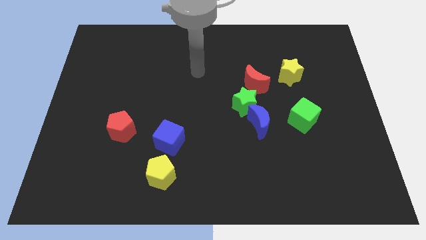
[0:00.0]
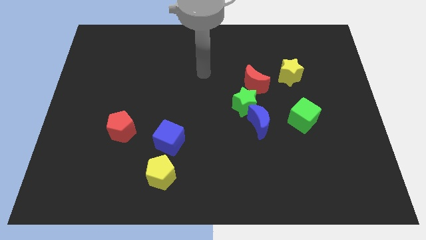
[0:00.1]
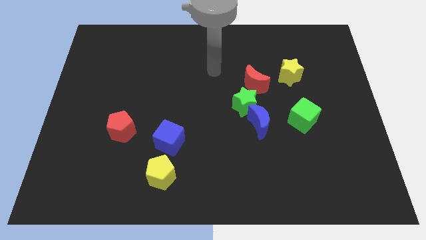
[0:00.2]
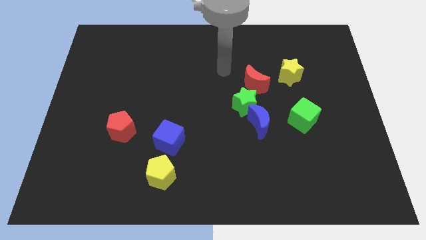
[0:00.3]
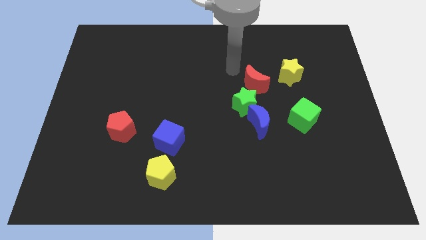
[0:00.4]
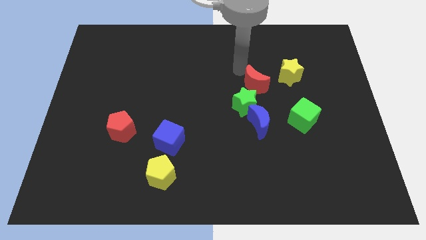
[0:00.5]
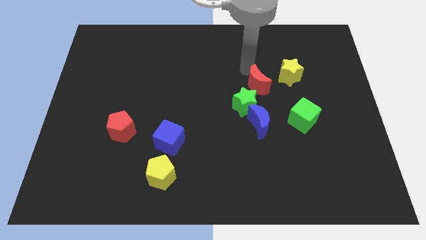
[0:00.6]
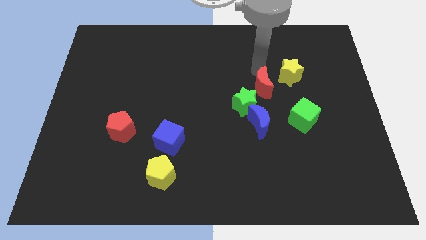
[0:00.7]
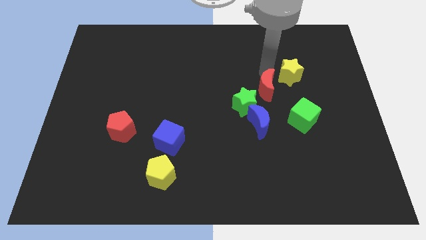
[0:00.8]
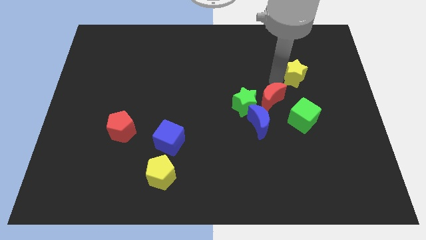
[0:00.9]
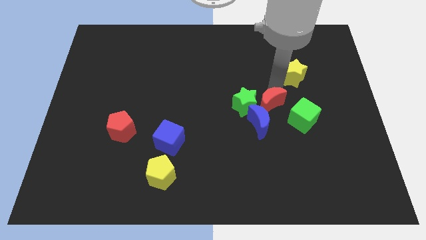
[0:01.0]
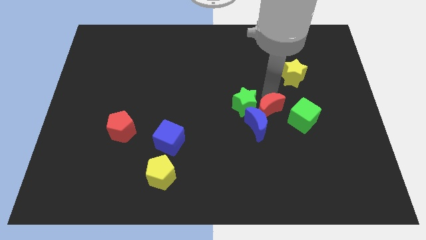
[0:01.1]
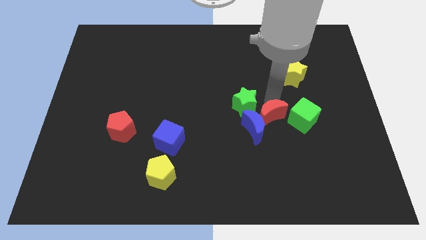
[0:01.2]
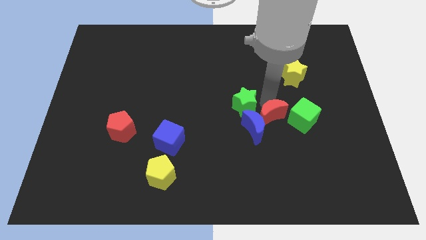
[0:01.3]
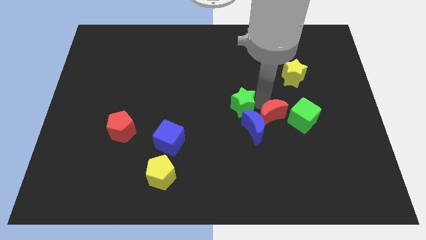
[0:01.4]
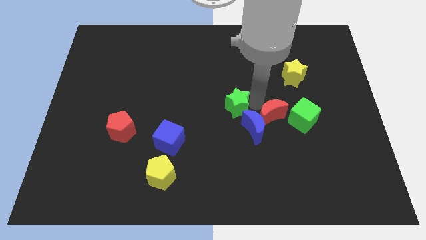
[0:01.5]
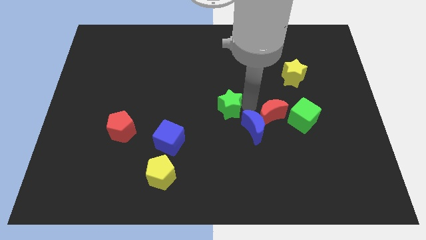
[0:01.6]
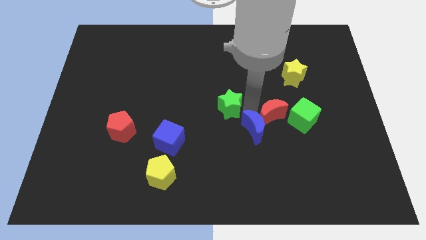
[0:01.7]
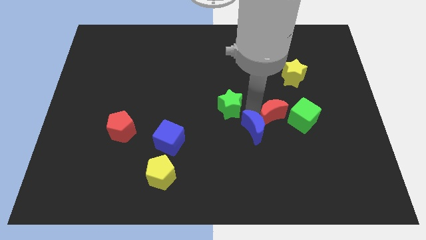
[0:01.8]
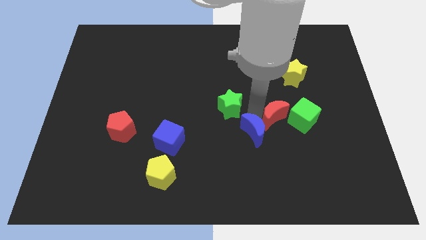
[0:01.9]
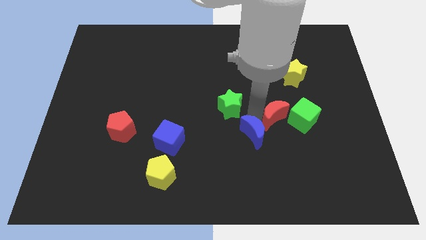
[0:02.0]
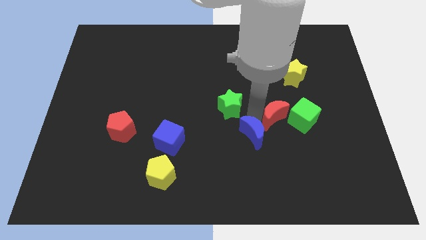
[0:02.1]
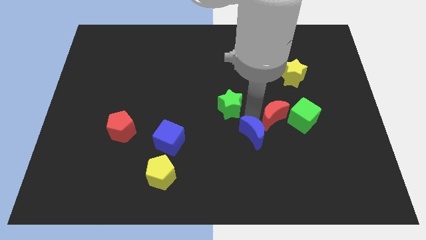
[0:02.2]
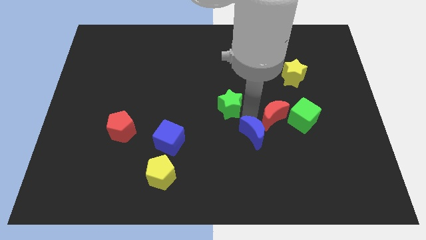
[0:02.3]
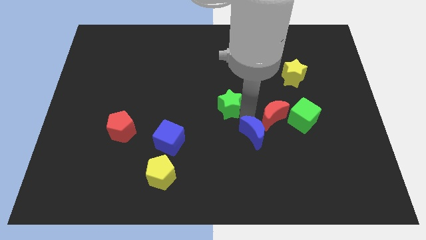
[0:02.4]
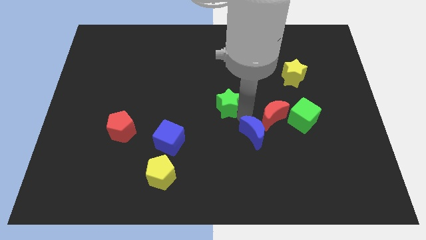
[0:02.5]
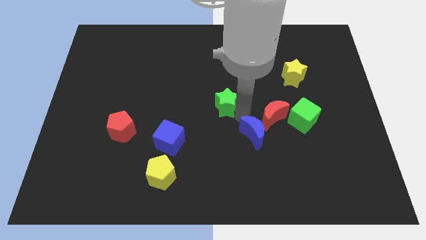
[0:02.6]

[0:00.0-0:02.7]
move the green star away from the blue moon and red moon

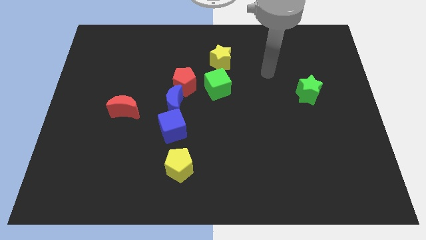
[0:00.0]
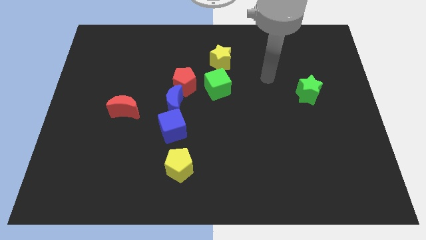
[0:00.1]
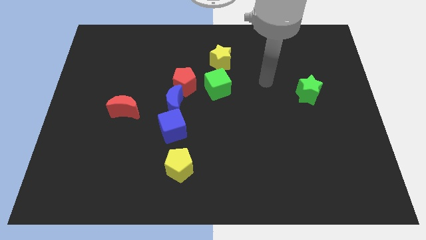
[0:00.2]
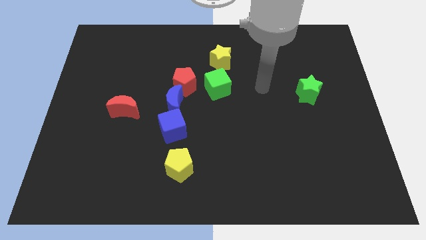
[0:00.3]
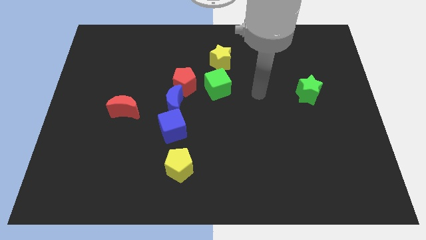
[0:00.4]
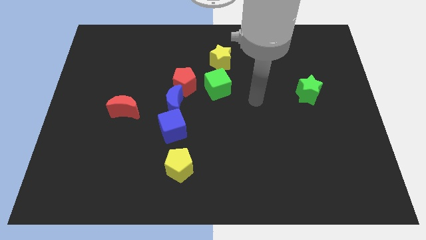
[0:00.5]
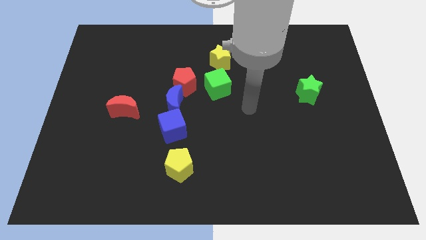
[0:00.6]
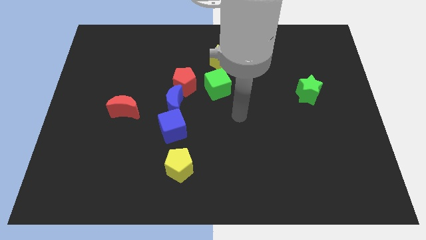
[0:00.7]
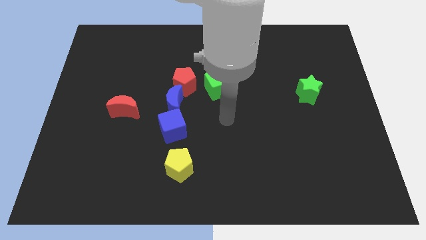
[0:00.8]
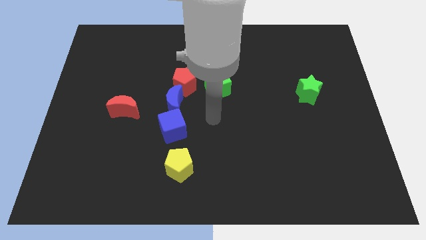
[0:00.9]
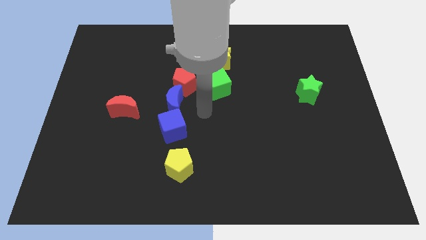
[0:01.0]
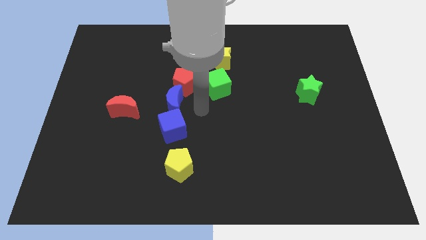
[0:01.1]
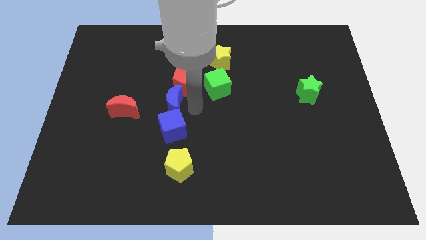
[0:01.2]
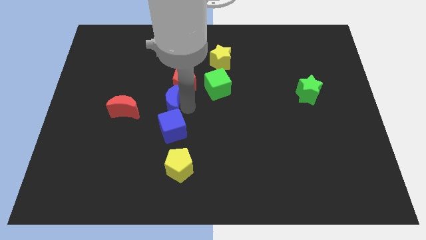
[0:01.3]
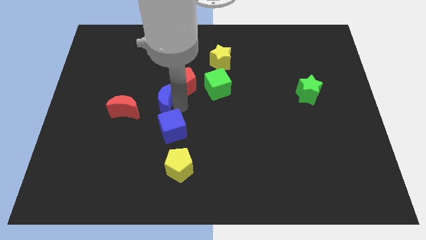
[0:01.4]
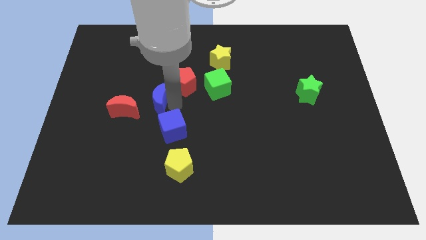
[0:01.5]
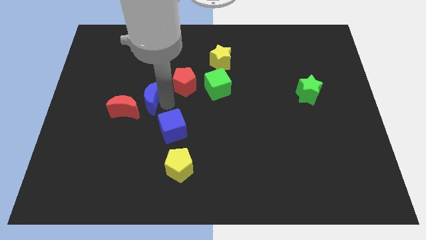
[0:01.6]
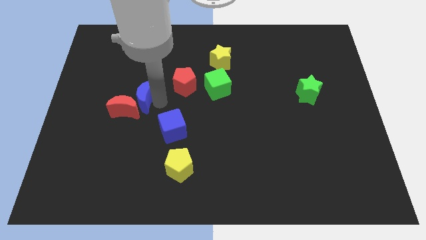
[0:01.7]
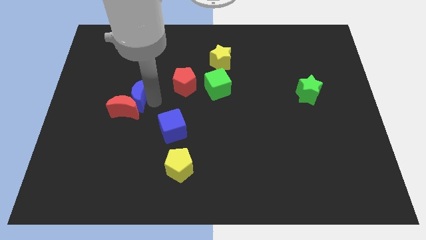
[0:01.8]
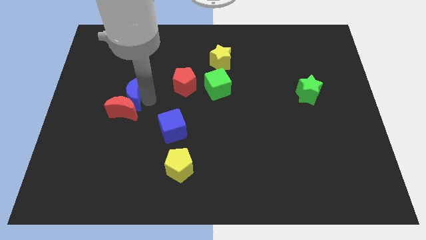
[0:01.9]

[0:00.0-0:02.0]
pull the blue moon apart from the red pentagon and blue cube

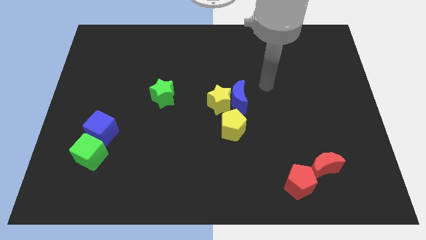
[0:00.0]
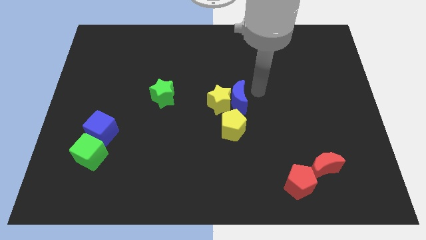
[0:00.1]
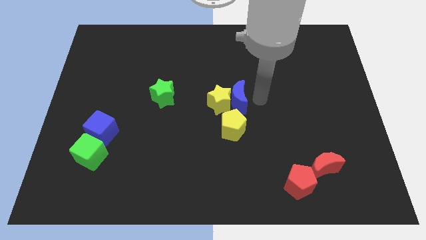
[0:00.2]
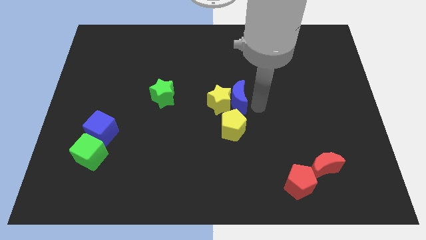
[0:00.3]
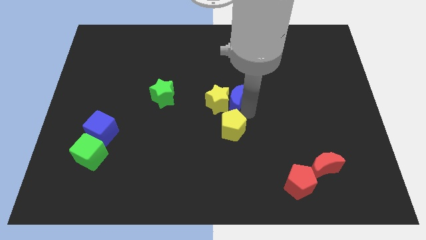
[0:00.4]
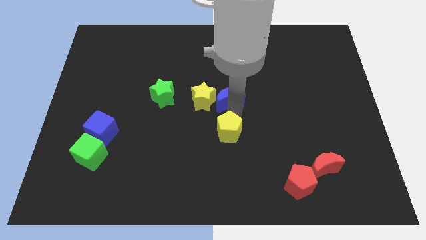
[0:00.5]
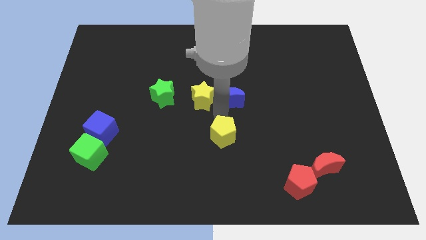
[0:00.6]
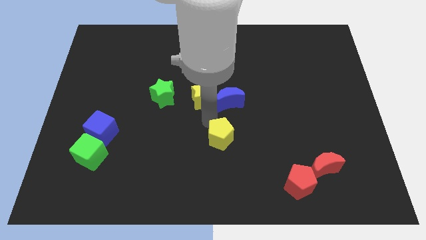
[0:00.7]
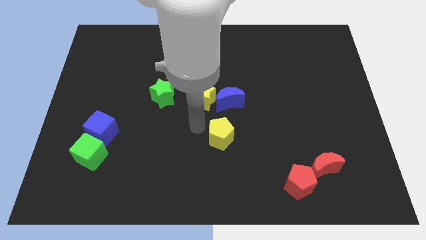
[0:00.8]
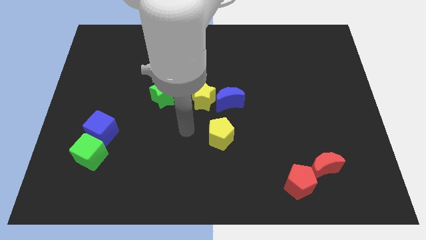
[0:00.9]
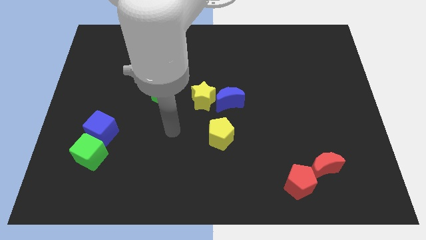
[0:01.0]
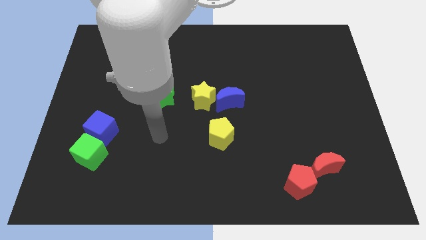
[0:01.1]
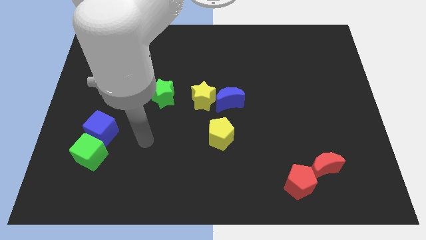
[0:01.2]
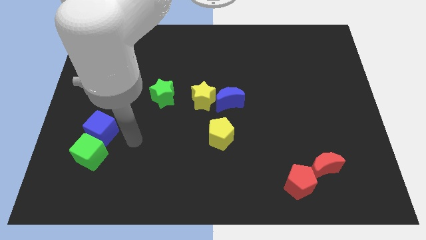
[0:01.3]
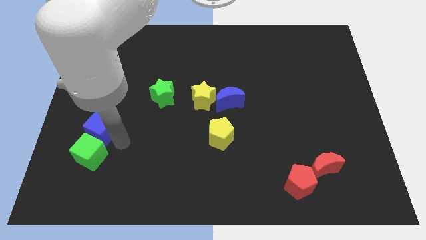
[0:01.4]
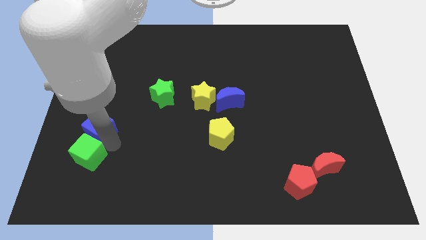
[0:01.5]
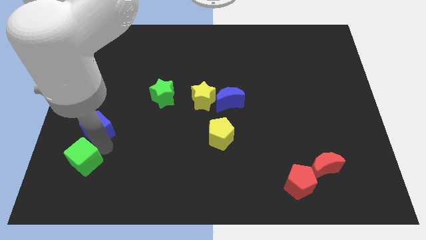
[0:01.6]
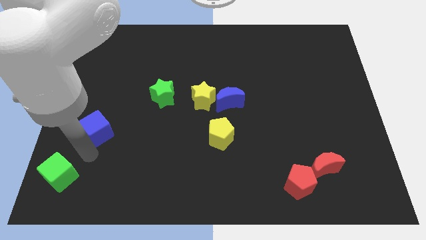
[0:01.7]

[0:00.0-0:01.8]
move the blue cube away from the green cube

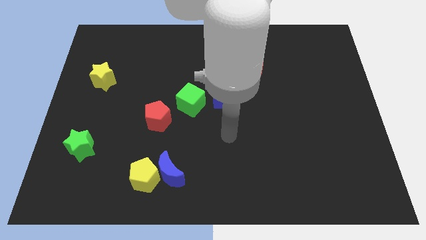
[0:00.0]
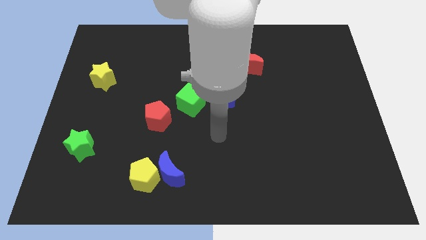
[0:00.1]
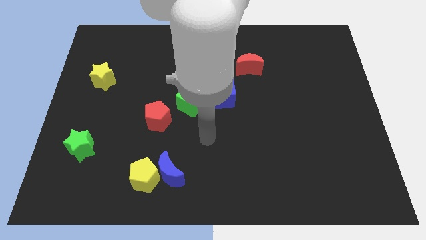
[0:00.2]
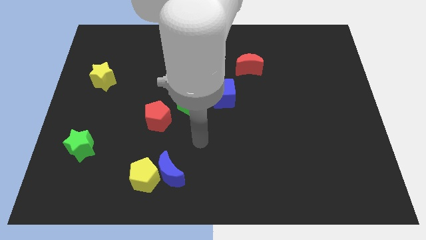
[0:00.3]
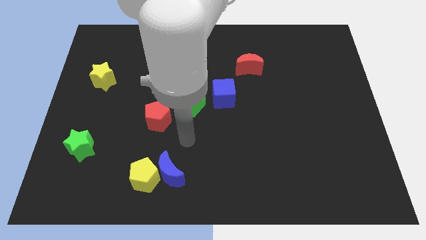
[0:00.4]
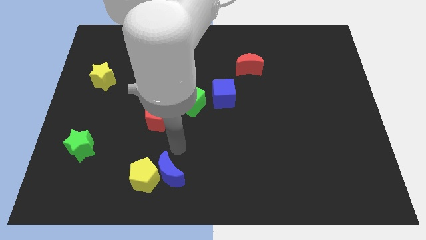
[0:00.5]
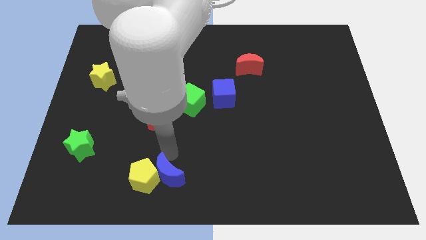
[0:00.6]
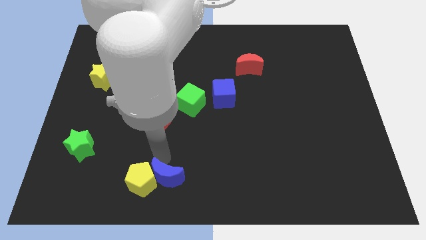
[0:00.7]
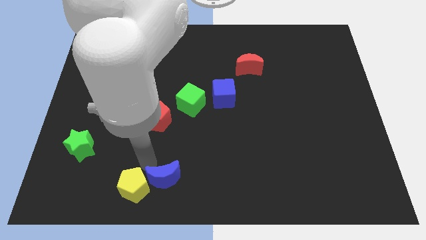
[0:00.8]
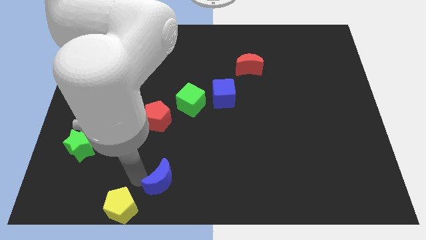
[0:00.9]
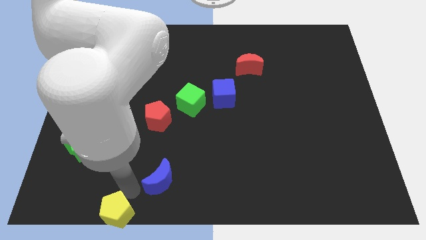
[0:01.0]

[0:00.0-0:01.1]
move the blue moon away from the yellow pentagon

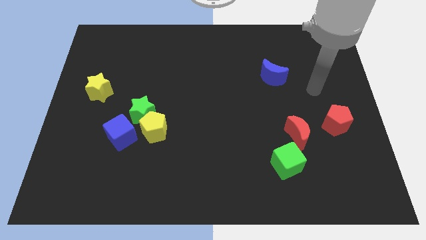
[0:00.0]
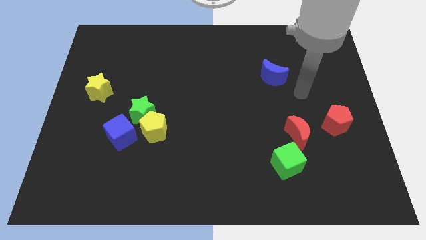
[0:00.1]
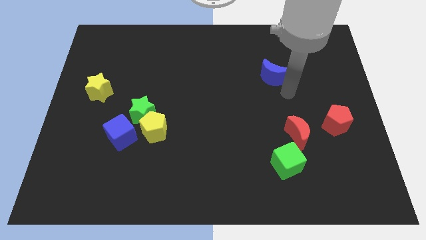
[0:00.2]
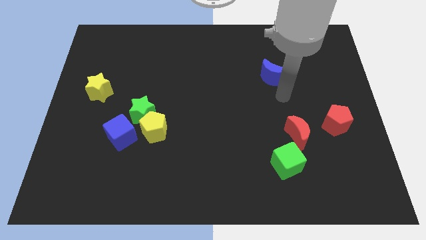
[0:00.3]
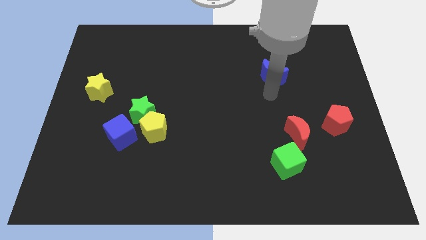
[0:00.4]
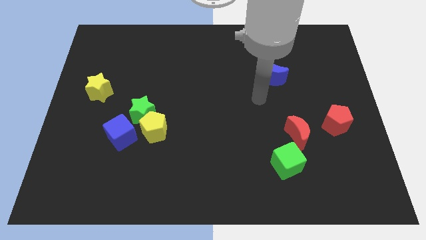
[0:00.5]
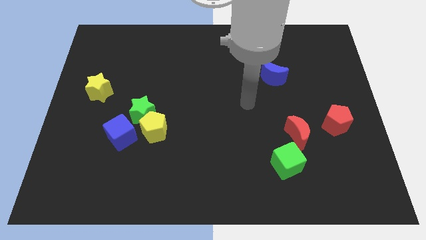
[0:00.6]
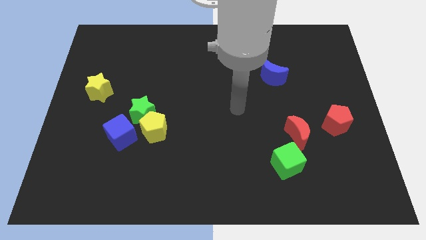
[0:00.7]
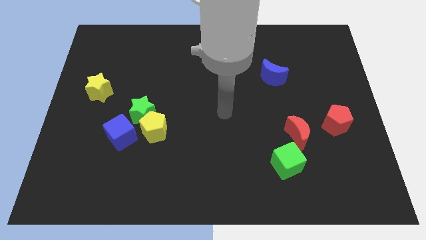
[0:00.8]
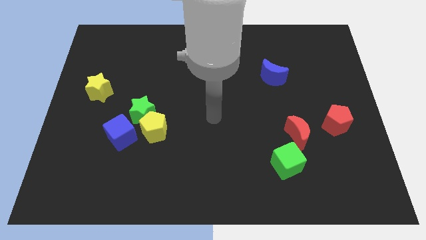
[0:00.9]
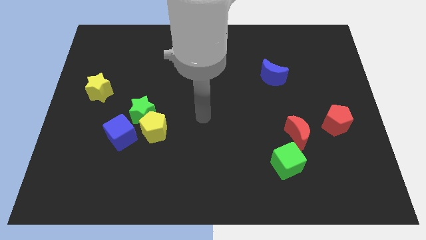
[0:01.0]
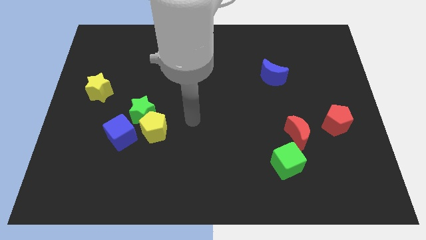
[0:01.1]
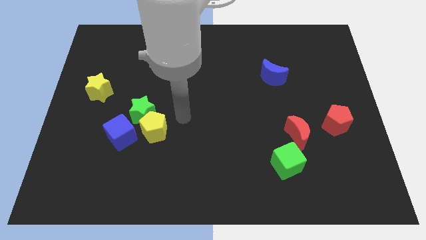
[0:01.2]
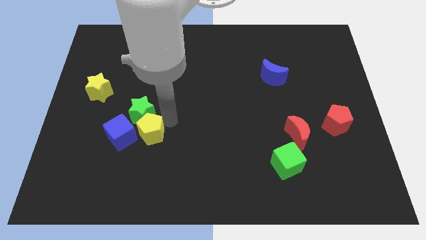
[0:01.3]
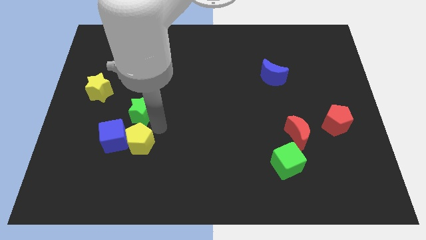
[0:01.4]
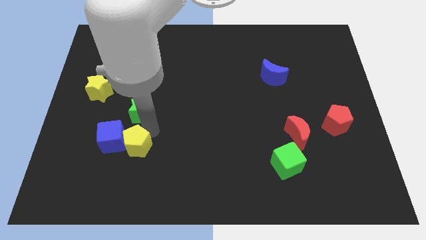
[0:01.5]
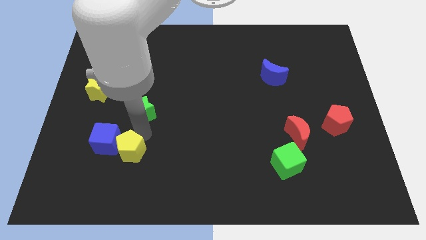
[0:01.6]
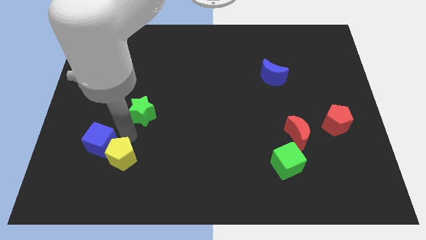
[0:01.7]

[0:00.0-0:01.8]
move the green star away from the yellow pentagon and blue cube
